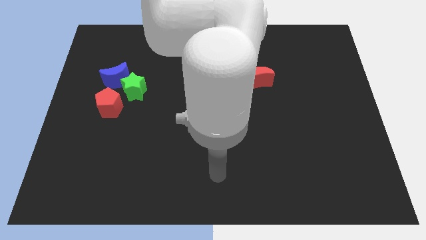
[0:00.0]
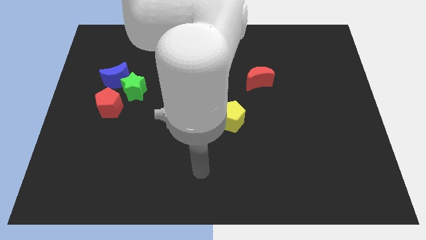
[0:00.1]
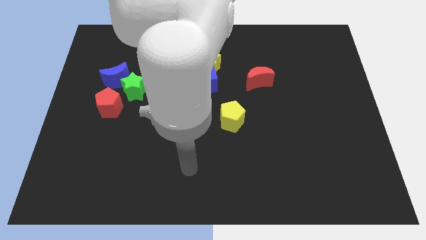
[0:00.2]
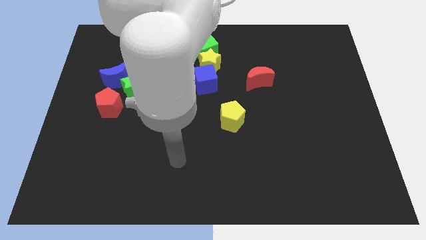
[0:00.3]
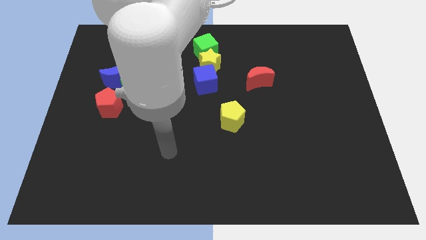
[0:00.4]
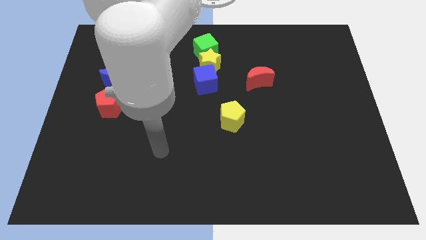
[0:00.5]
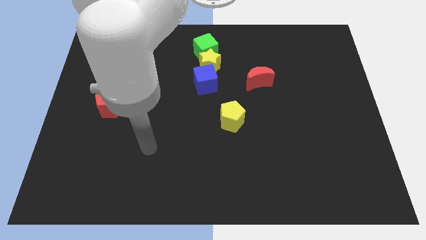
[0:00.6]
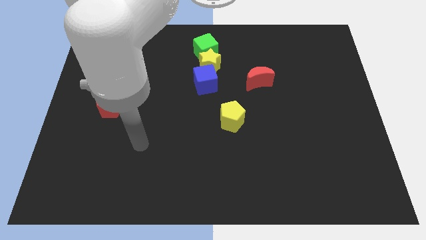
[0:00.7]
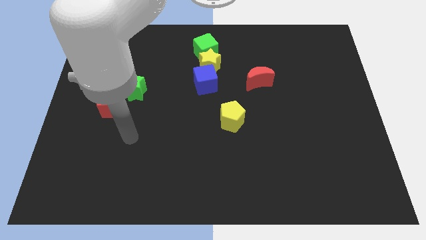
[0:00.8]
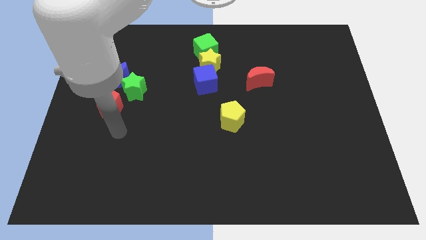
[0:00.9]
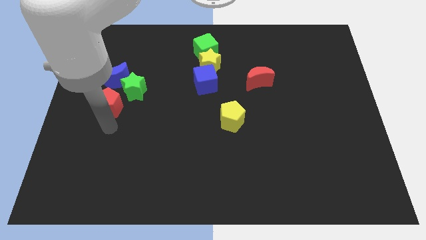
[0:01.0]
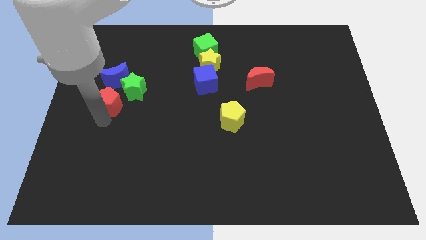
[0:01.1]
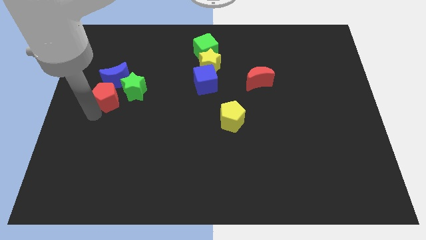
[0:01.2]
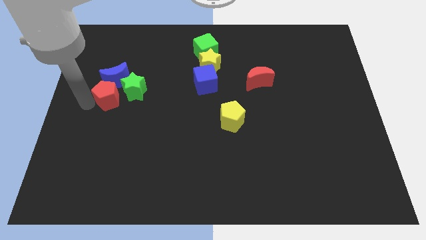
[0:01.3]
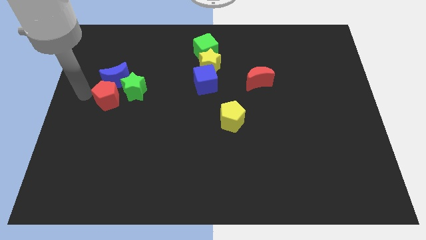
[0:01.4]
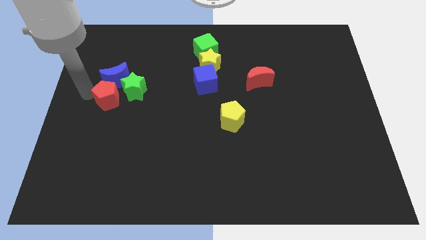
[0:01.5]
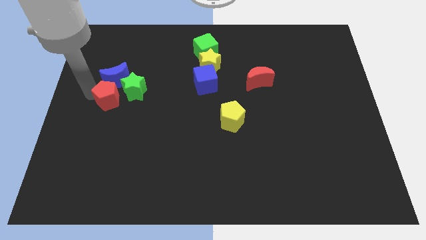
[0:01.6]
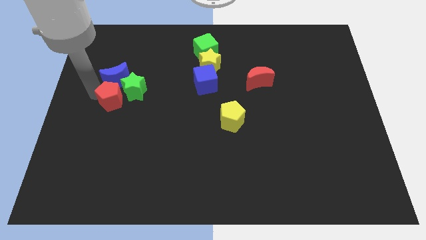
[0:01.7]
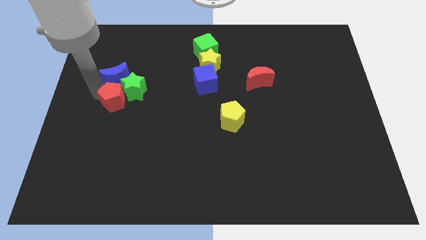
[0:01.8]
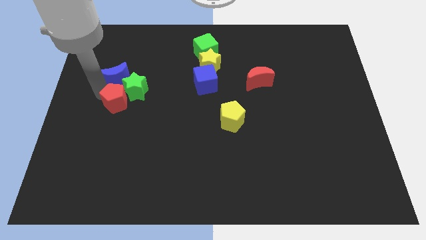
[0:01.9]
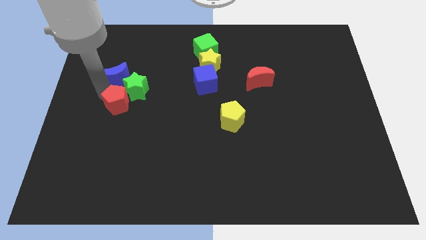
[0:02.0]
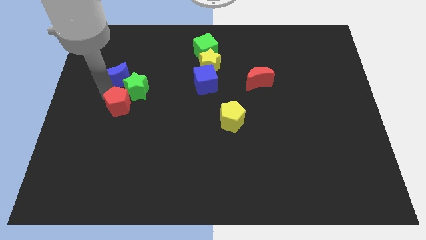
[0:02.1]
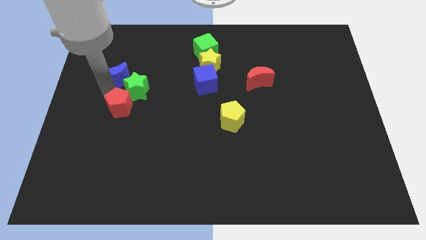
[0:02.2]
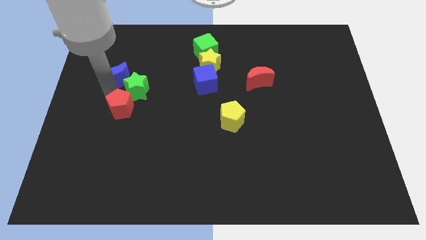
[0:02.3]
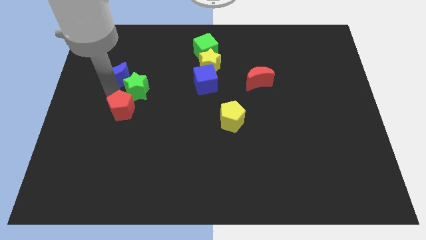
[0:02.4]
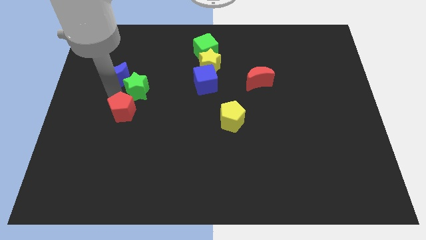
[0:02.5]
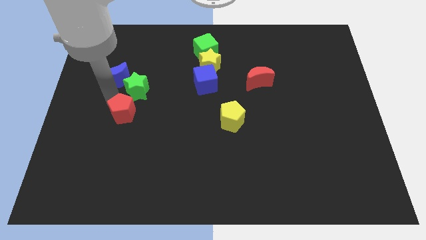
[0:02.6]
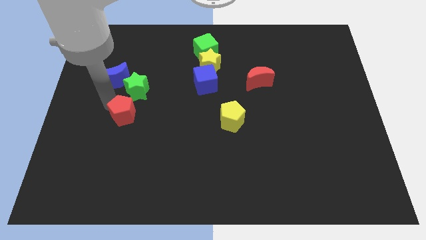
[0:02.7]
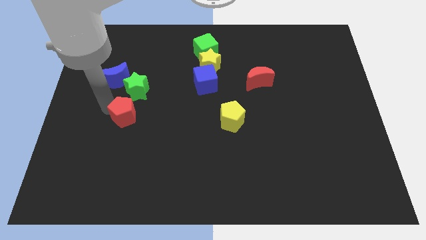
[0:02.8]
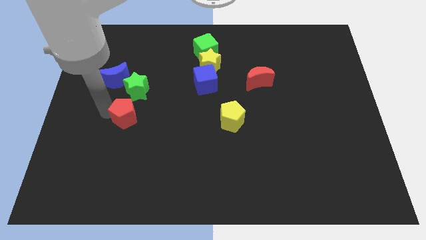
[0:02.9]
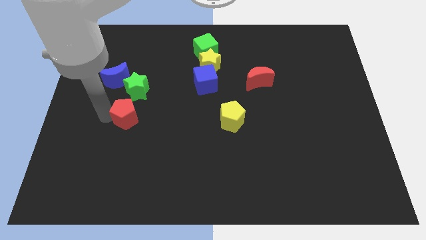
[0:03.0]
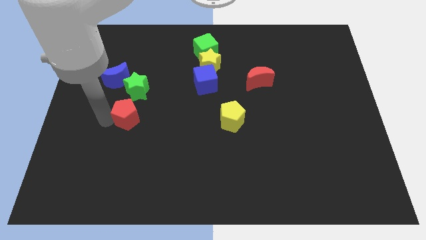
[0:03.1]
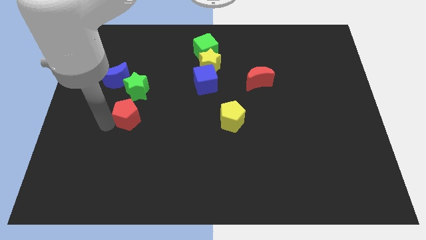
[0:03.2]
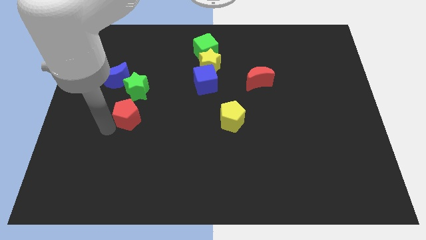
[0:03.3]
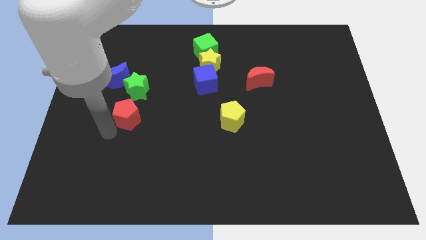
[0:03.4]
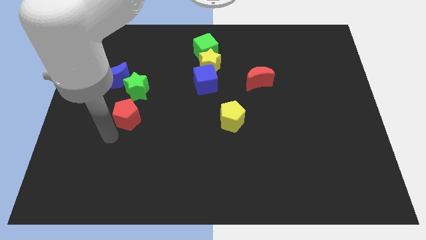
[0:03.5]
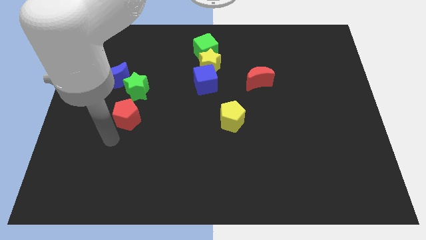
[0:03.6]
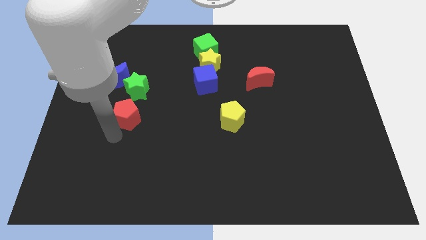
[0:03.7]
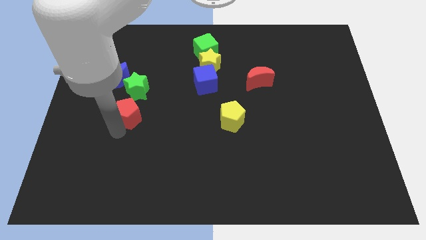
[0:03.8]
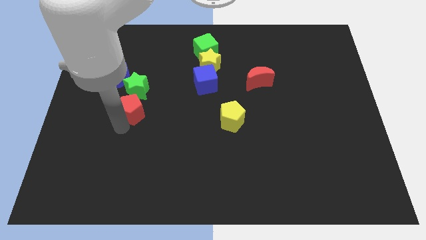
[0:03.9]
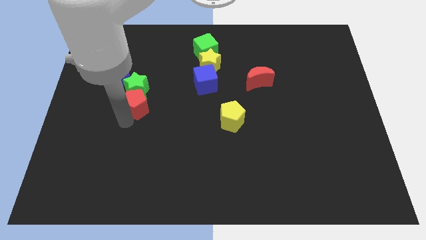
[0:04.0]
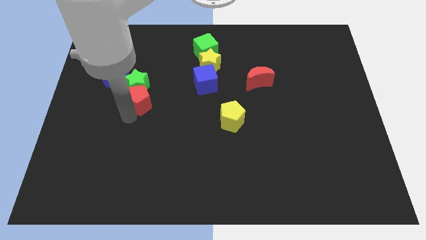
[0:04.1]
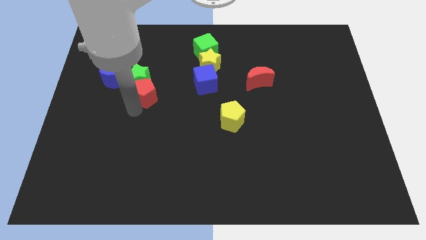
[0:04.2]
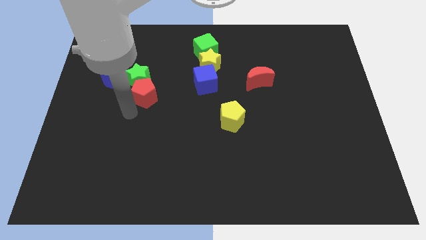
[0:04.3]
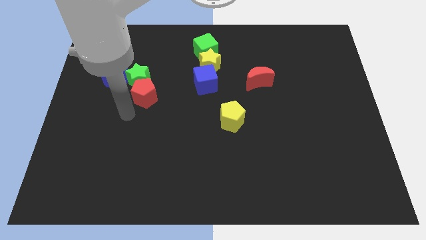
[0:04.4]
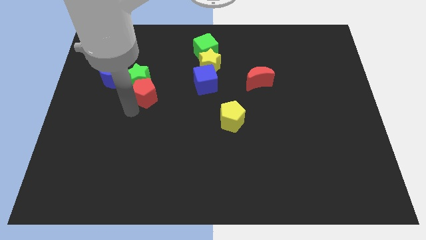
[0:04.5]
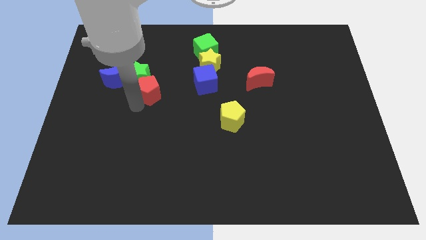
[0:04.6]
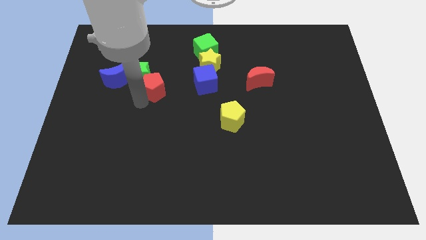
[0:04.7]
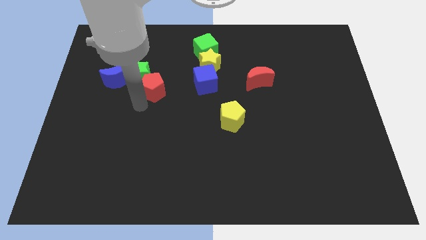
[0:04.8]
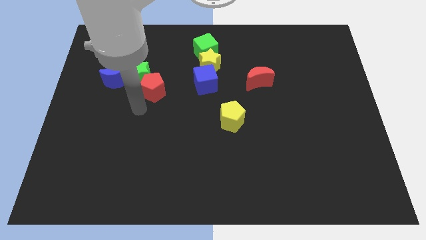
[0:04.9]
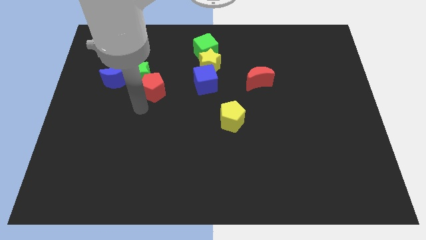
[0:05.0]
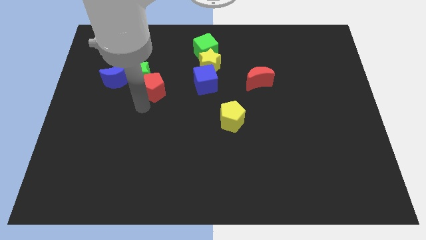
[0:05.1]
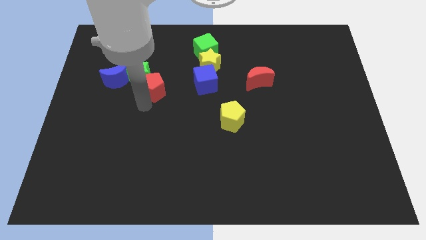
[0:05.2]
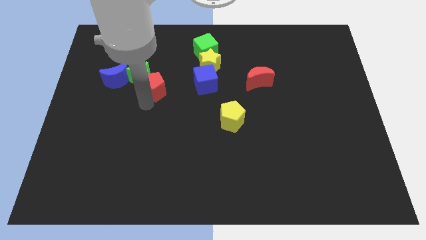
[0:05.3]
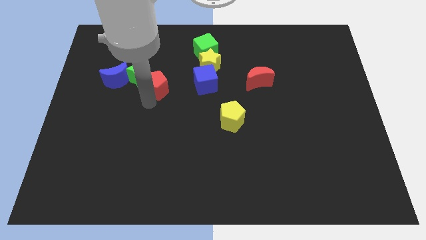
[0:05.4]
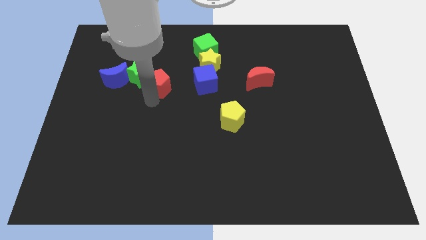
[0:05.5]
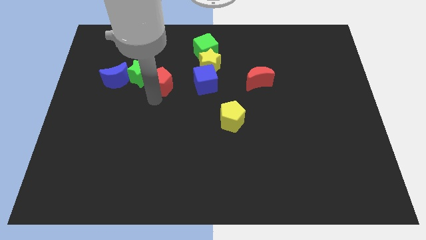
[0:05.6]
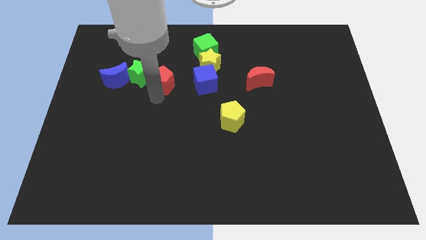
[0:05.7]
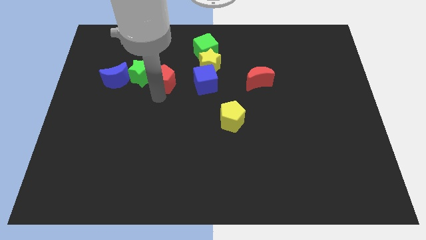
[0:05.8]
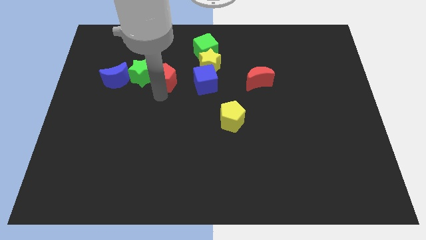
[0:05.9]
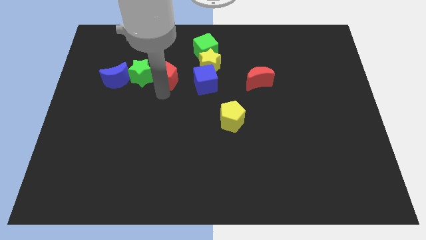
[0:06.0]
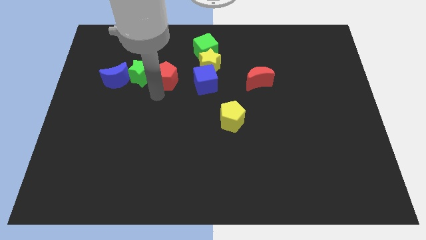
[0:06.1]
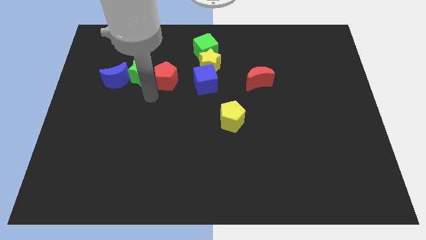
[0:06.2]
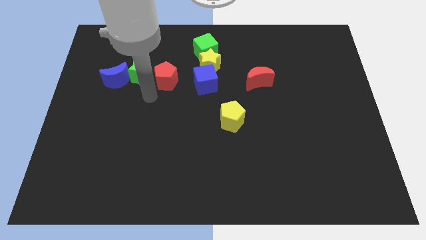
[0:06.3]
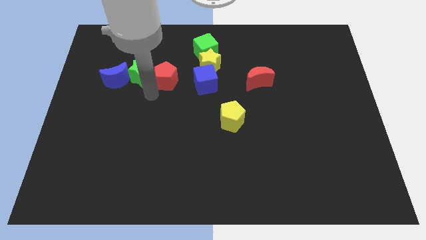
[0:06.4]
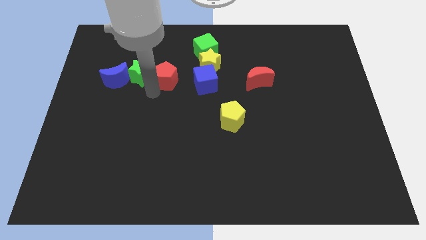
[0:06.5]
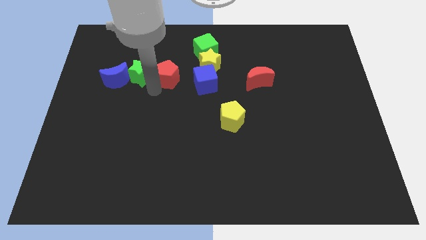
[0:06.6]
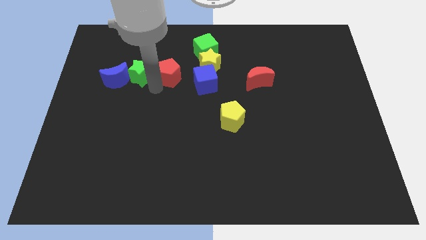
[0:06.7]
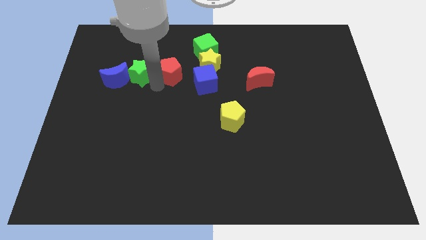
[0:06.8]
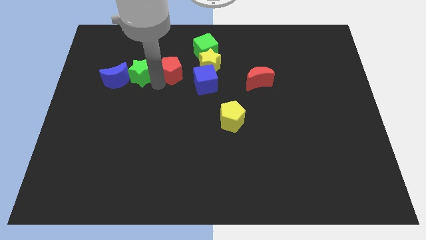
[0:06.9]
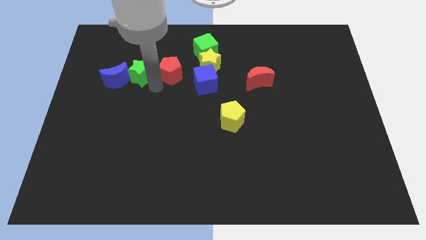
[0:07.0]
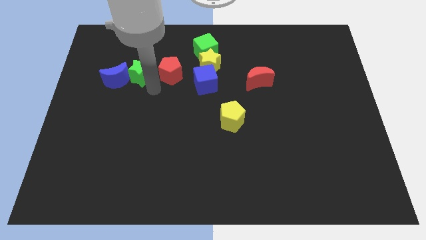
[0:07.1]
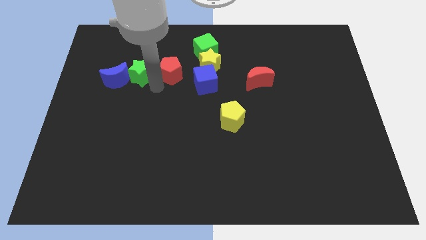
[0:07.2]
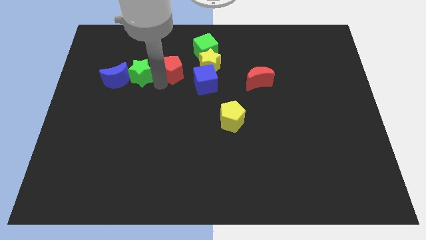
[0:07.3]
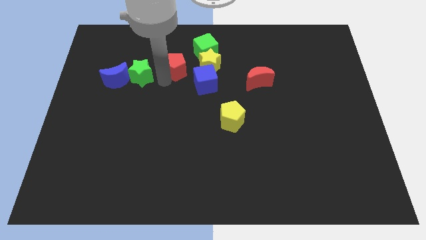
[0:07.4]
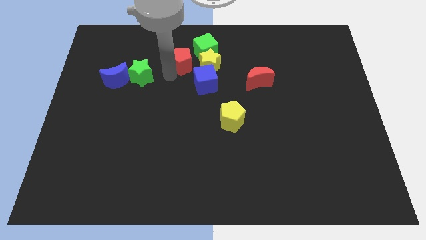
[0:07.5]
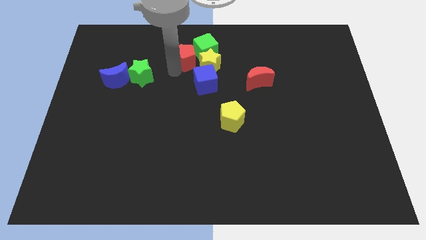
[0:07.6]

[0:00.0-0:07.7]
move the red pentagon towards the green cube
